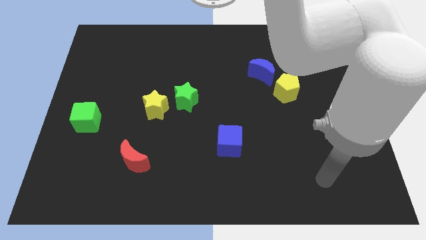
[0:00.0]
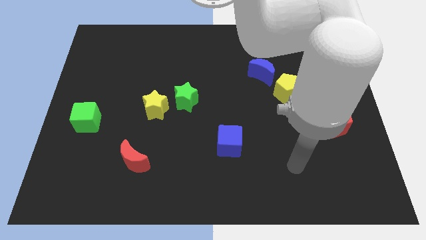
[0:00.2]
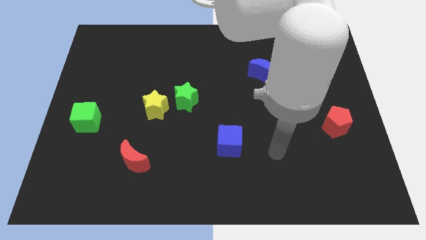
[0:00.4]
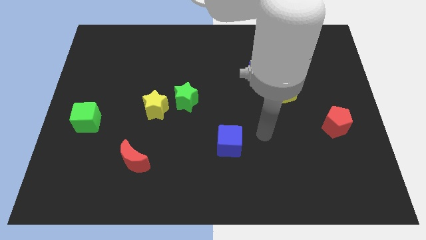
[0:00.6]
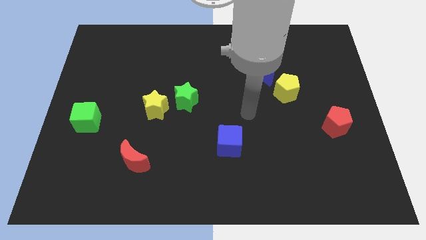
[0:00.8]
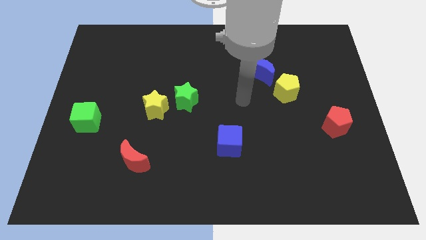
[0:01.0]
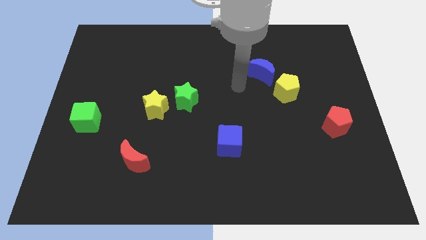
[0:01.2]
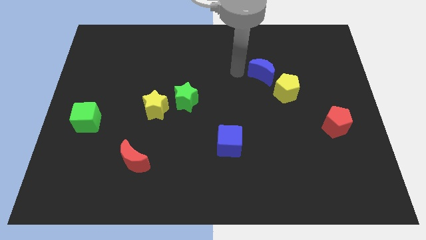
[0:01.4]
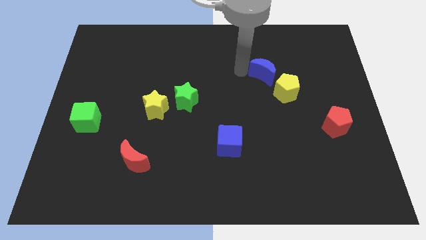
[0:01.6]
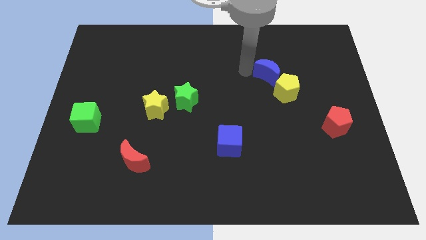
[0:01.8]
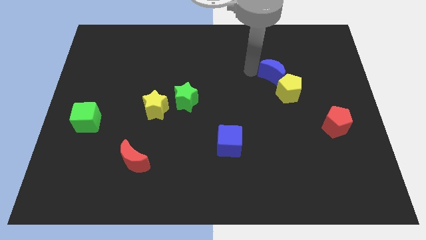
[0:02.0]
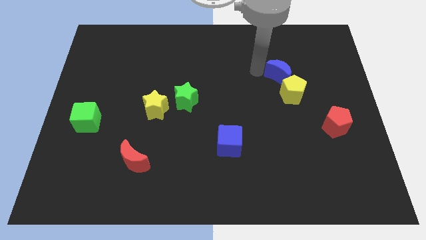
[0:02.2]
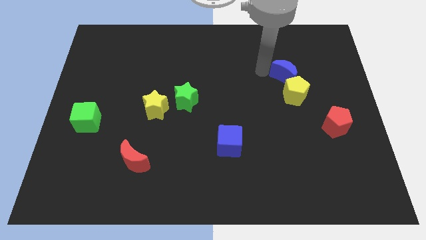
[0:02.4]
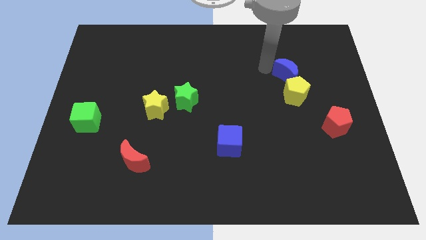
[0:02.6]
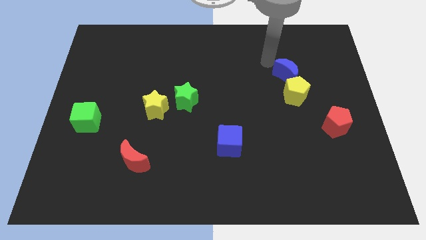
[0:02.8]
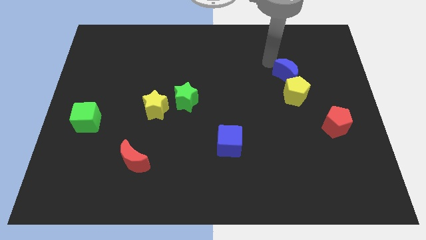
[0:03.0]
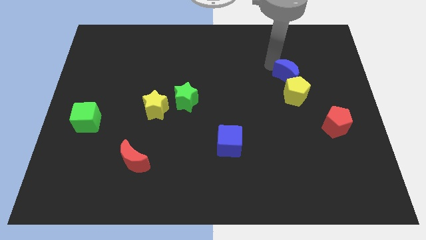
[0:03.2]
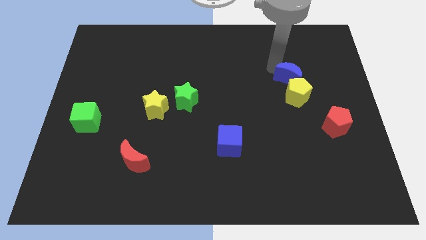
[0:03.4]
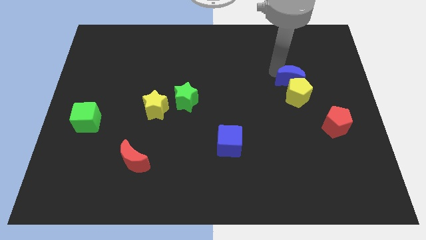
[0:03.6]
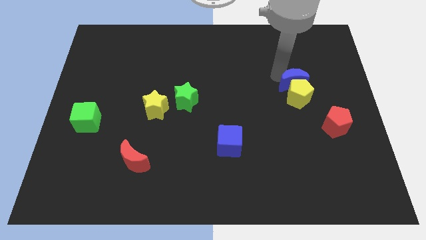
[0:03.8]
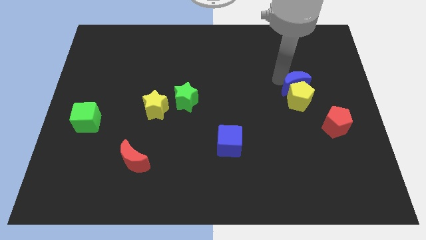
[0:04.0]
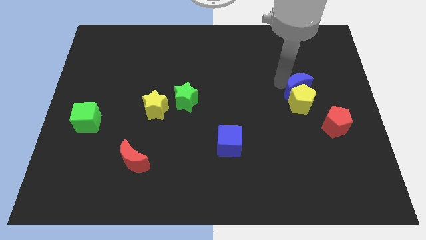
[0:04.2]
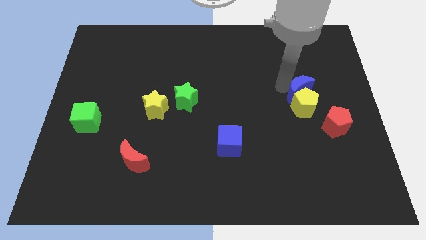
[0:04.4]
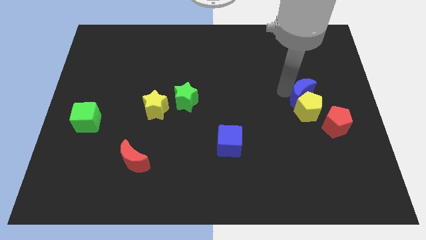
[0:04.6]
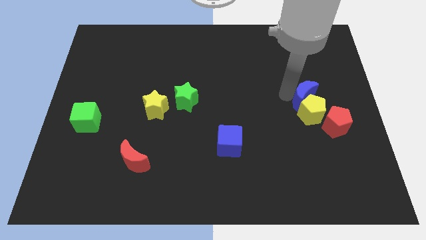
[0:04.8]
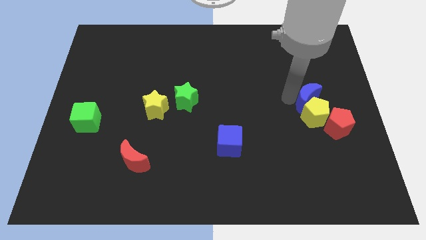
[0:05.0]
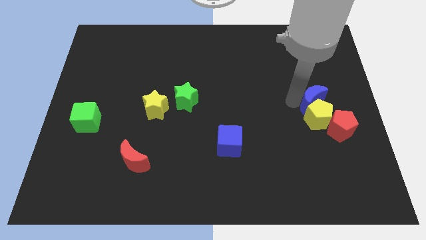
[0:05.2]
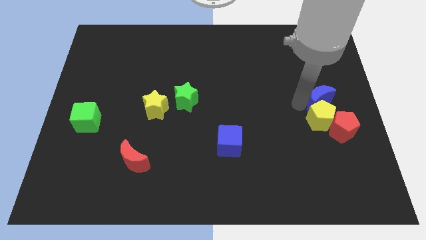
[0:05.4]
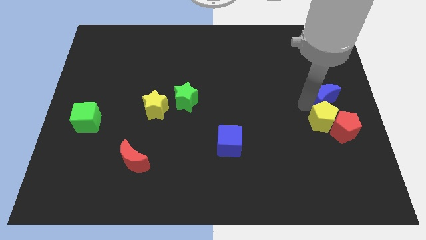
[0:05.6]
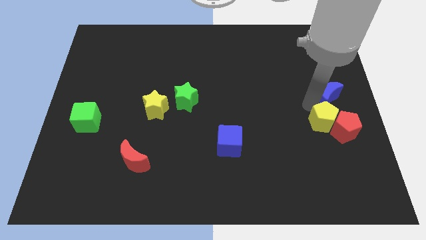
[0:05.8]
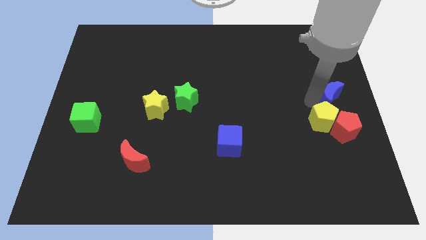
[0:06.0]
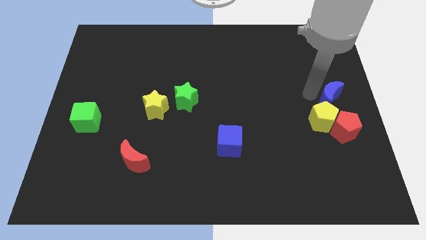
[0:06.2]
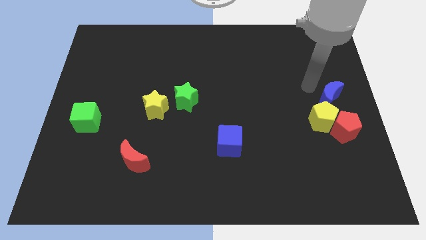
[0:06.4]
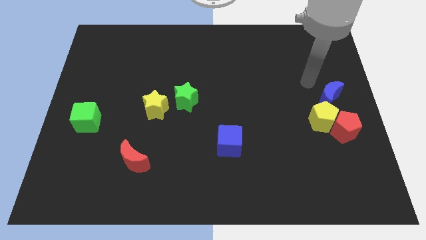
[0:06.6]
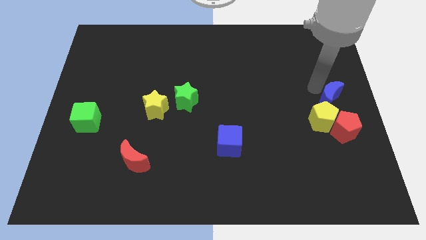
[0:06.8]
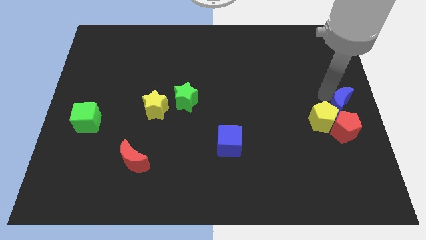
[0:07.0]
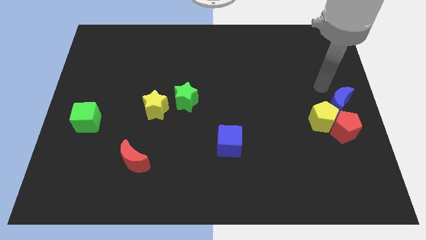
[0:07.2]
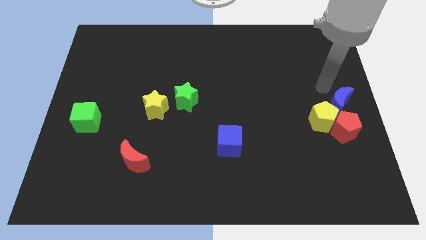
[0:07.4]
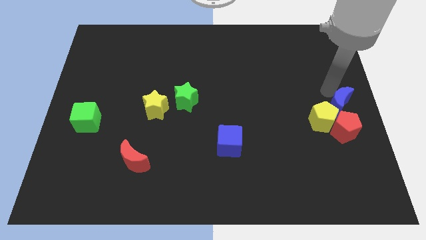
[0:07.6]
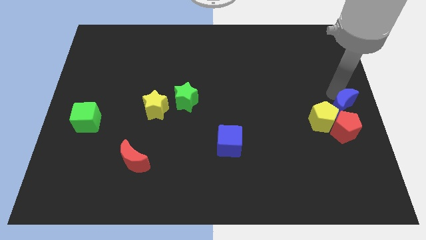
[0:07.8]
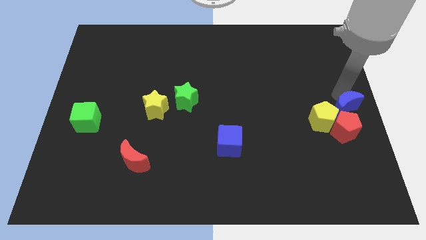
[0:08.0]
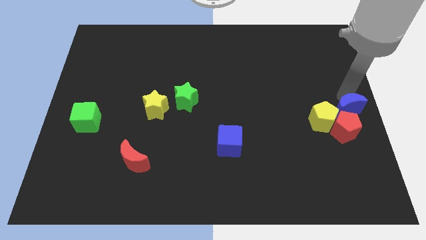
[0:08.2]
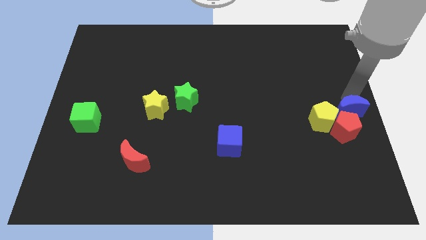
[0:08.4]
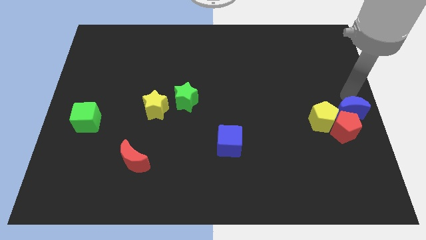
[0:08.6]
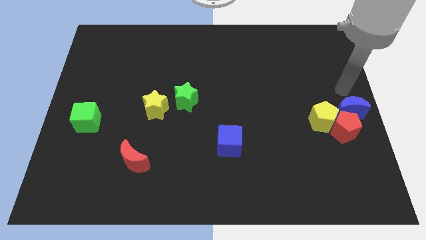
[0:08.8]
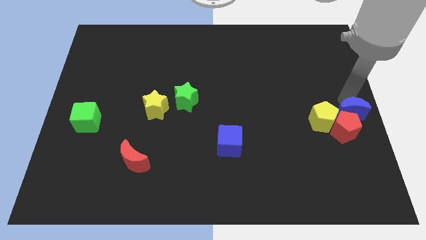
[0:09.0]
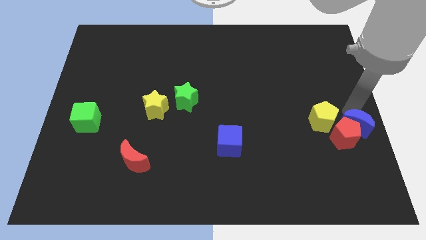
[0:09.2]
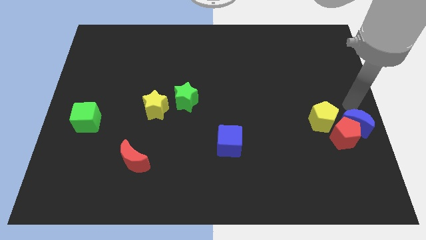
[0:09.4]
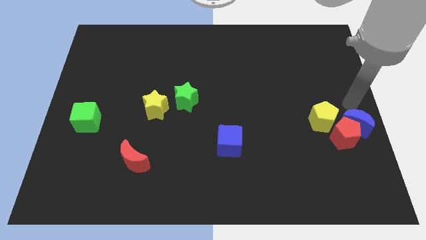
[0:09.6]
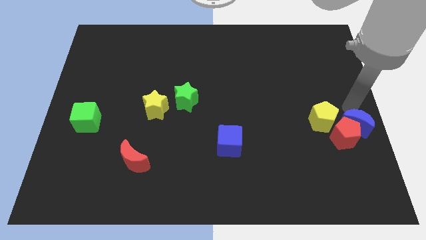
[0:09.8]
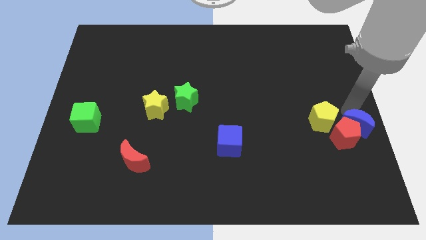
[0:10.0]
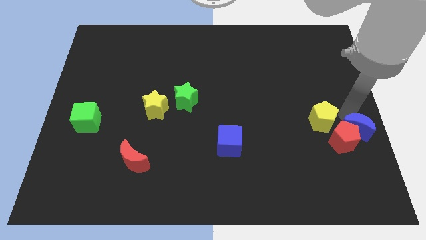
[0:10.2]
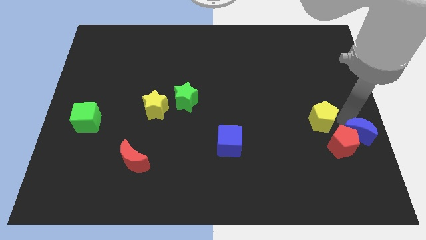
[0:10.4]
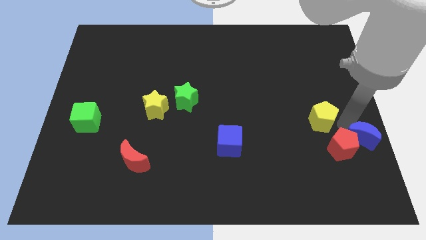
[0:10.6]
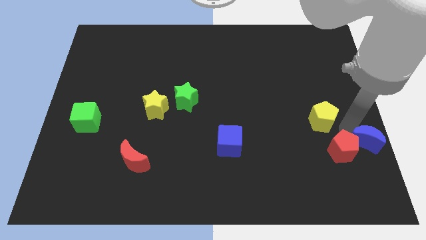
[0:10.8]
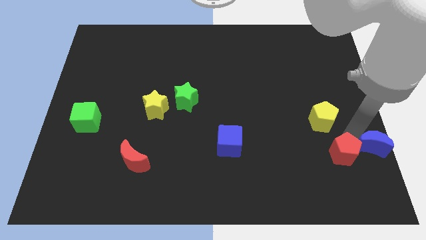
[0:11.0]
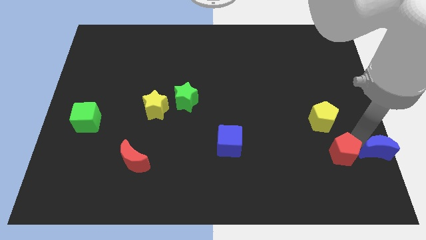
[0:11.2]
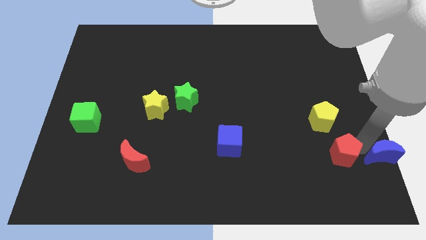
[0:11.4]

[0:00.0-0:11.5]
put the blue moon to the lower right corner
